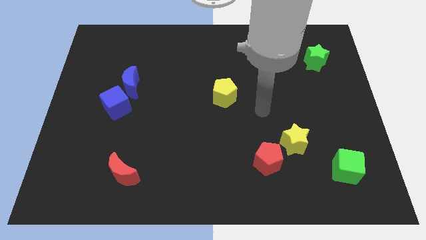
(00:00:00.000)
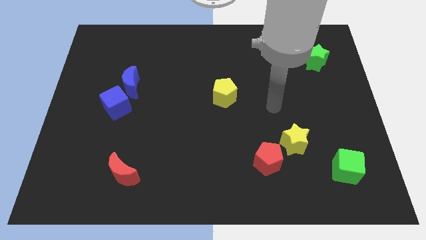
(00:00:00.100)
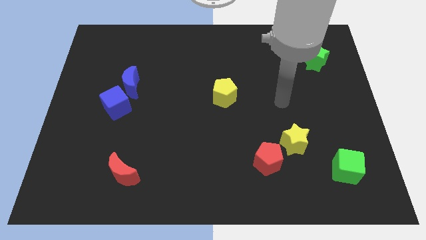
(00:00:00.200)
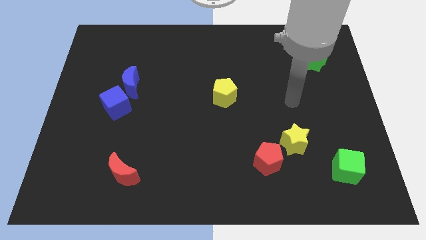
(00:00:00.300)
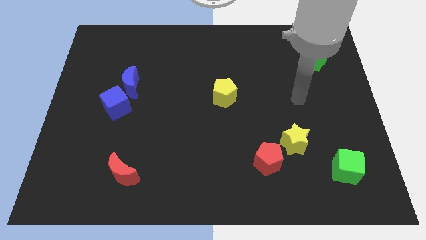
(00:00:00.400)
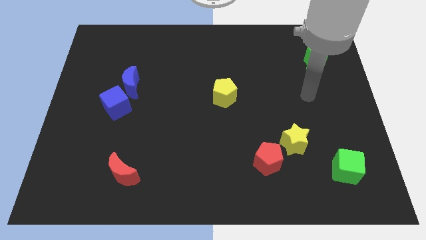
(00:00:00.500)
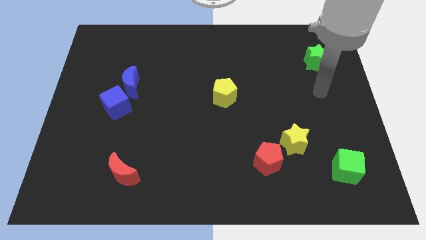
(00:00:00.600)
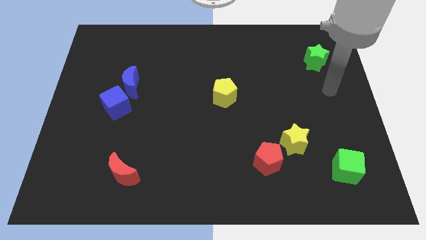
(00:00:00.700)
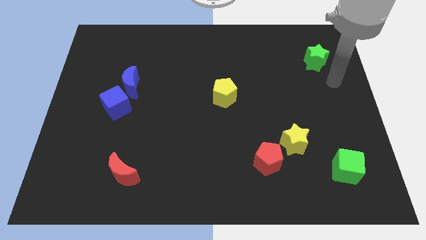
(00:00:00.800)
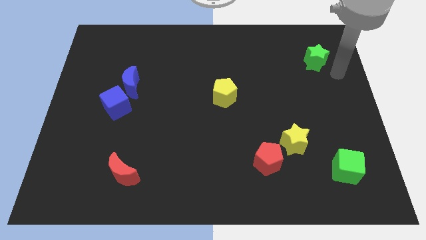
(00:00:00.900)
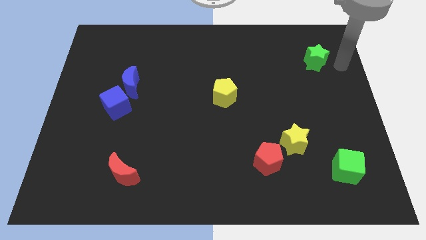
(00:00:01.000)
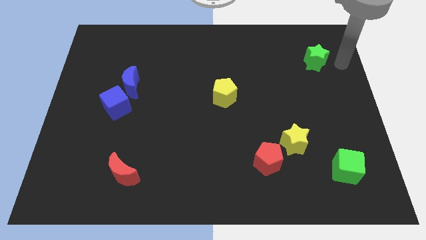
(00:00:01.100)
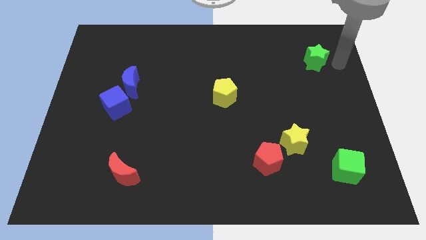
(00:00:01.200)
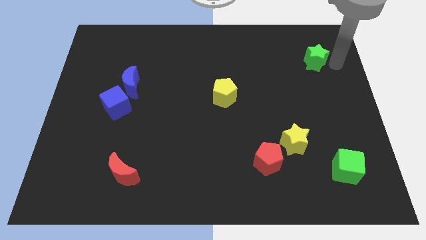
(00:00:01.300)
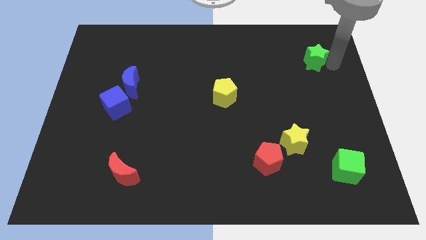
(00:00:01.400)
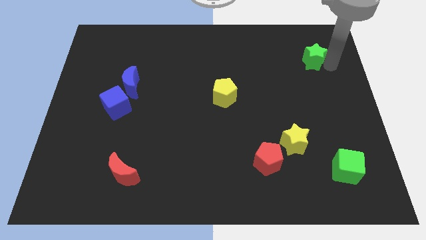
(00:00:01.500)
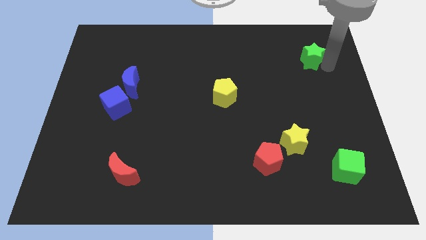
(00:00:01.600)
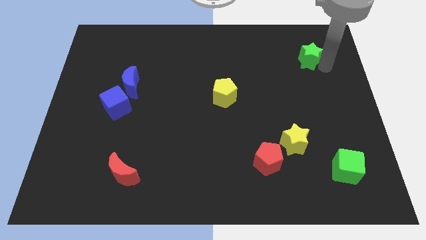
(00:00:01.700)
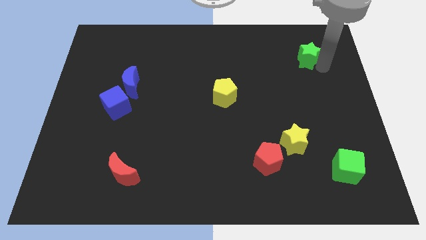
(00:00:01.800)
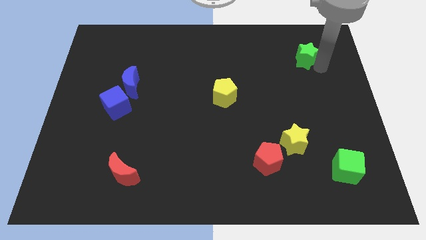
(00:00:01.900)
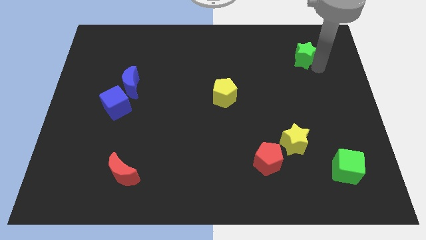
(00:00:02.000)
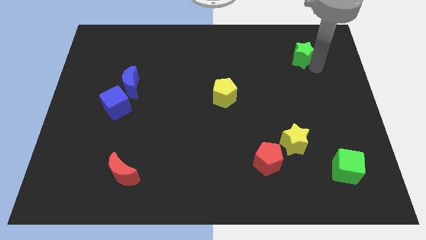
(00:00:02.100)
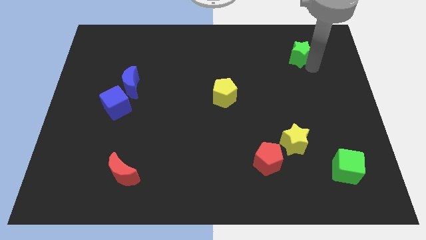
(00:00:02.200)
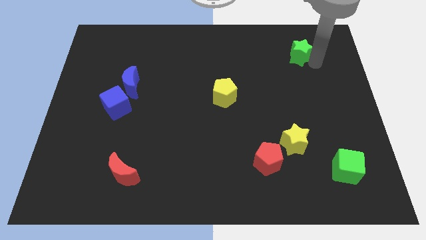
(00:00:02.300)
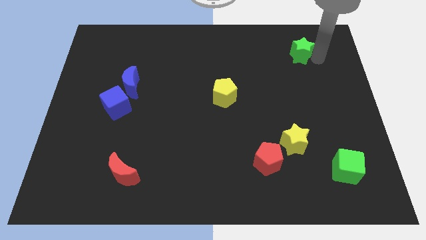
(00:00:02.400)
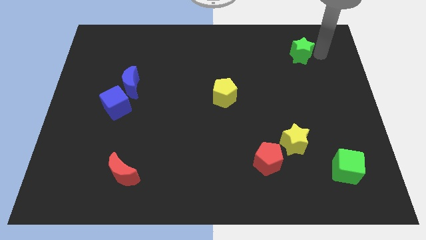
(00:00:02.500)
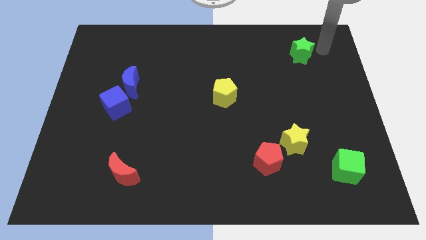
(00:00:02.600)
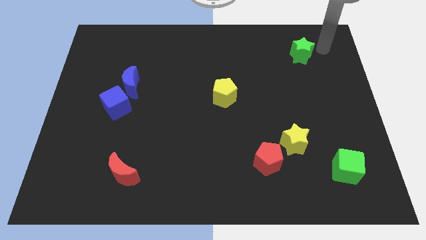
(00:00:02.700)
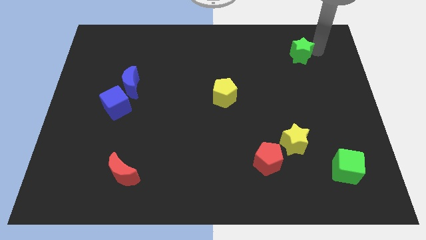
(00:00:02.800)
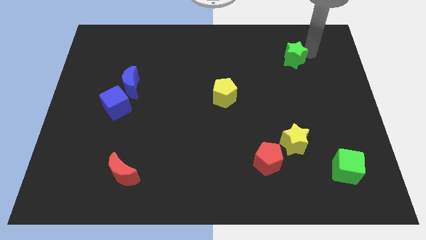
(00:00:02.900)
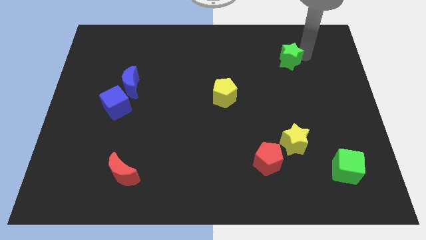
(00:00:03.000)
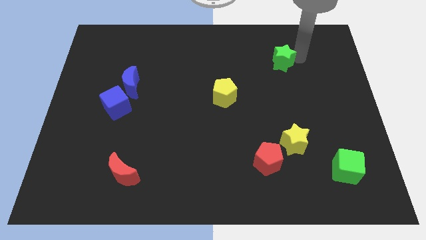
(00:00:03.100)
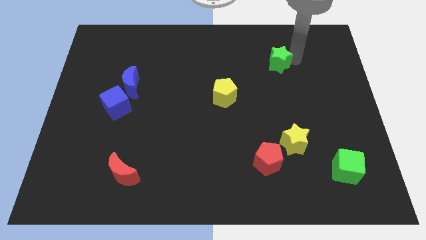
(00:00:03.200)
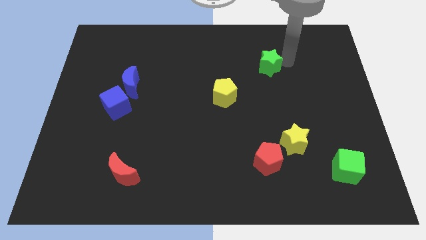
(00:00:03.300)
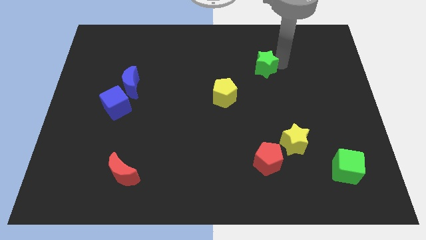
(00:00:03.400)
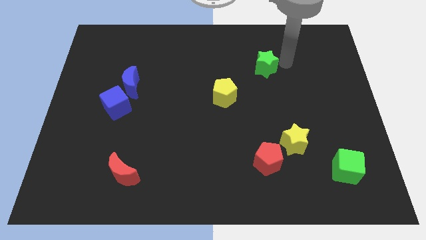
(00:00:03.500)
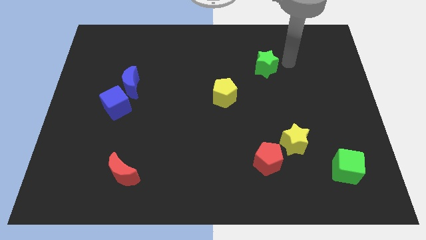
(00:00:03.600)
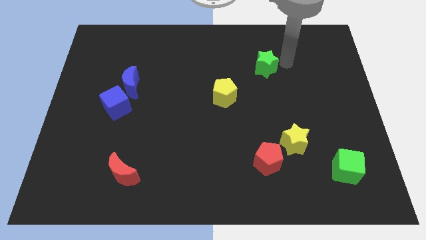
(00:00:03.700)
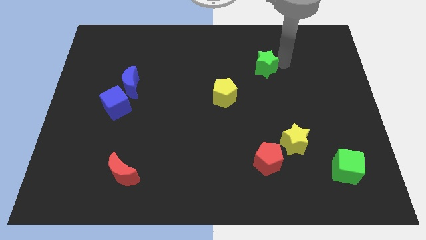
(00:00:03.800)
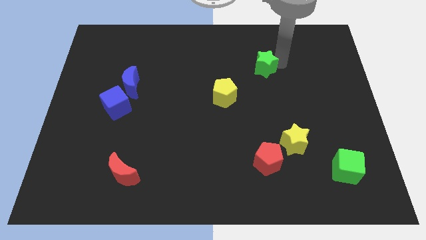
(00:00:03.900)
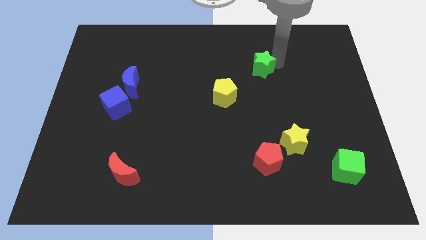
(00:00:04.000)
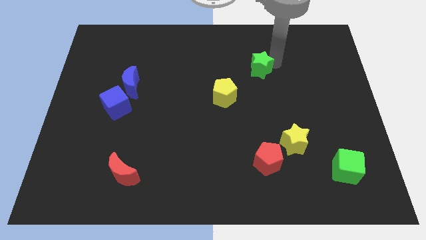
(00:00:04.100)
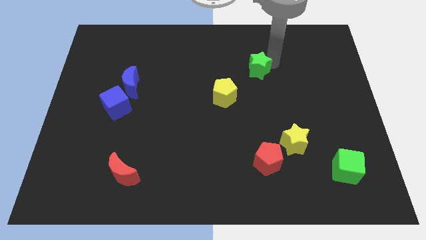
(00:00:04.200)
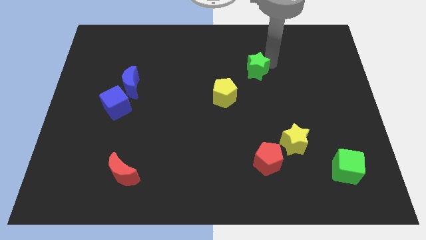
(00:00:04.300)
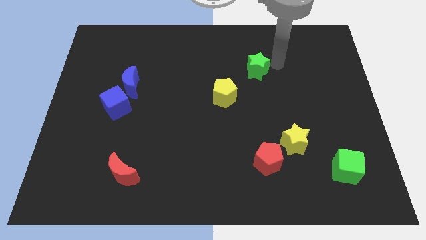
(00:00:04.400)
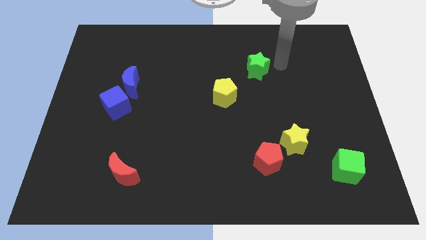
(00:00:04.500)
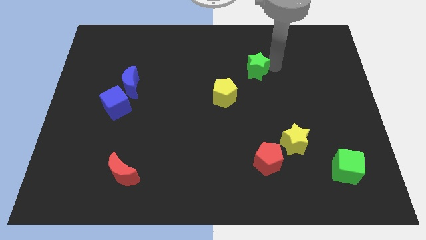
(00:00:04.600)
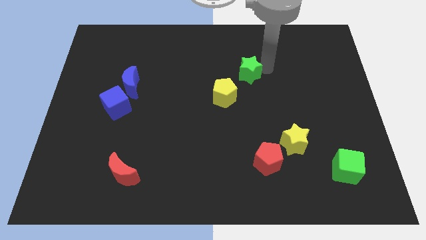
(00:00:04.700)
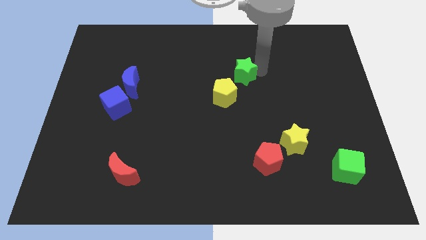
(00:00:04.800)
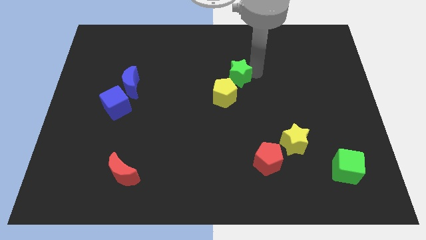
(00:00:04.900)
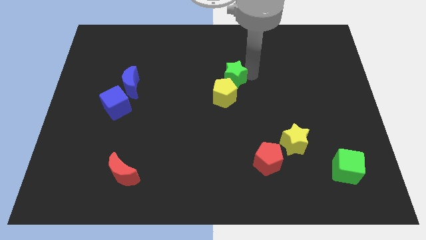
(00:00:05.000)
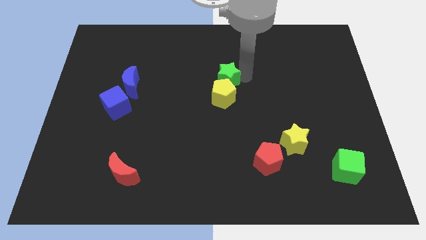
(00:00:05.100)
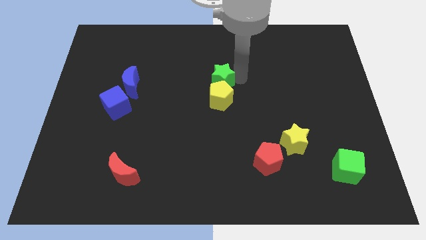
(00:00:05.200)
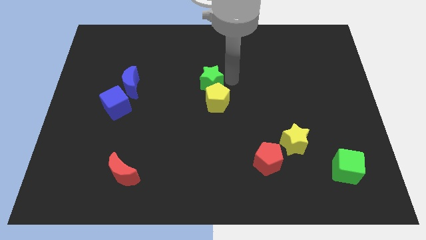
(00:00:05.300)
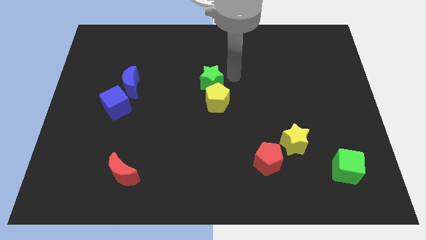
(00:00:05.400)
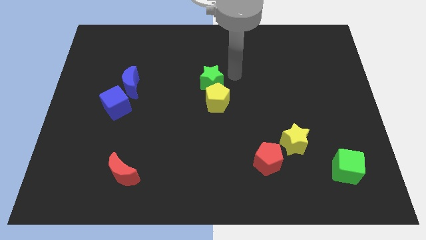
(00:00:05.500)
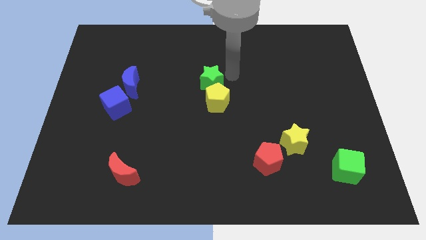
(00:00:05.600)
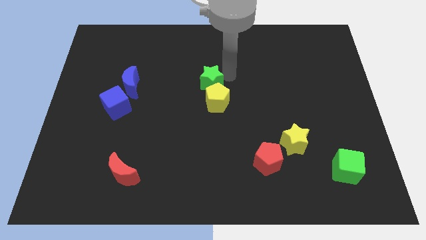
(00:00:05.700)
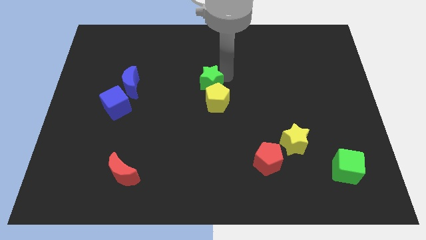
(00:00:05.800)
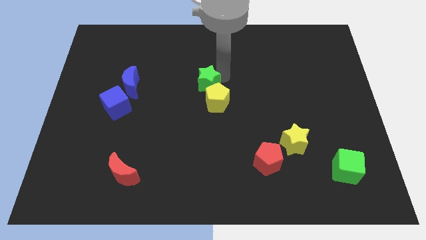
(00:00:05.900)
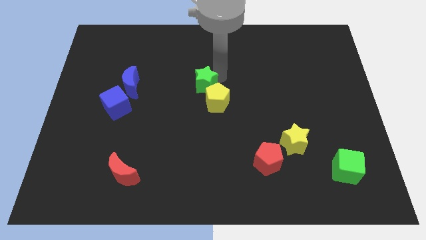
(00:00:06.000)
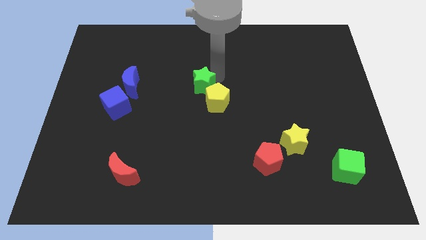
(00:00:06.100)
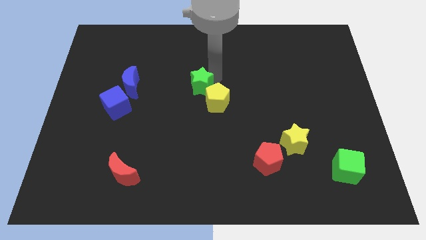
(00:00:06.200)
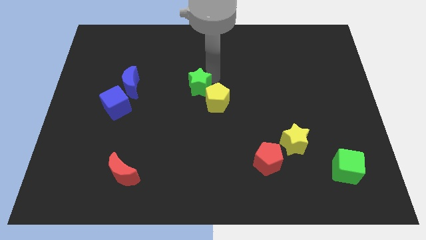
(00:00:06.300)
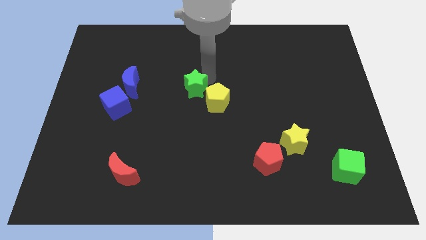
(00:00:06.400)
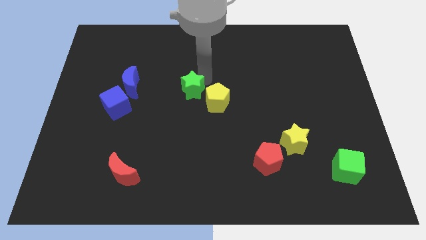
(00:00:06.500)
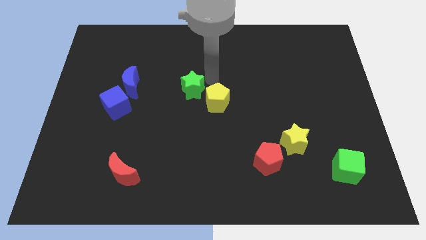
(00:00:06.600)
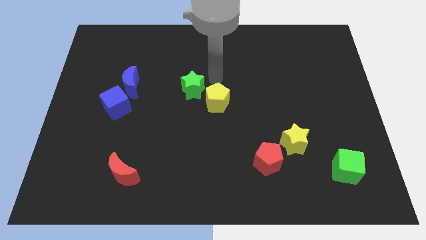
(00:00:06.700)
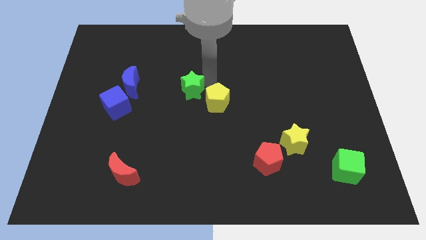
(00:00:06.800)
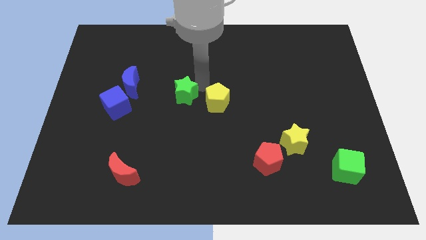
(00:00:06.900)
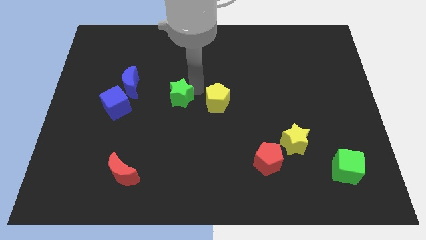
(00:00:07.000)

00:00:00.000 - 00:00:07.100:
push the green star to the right of the blue cube
